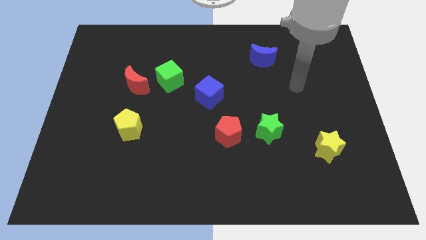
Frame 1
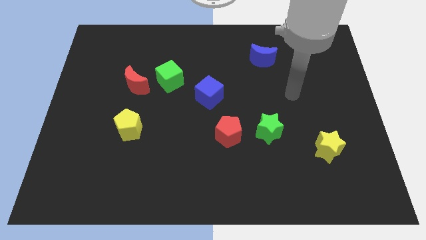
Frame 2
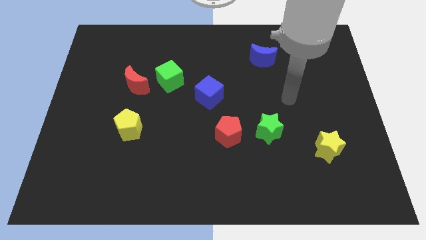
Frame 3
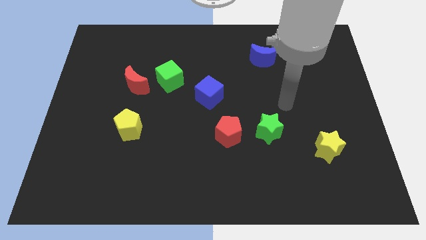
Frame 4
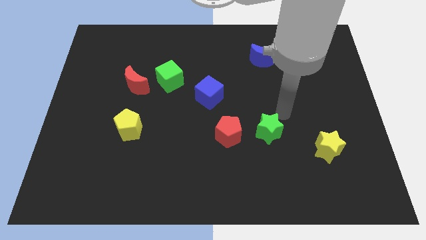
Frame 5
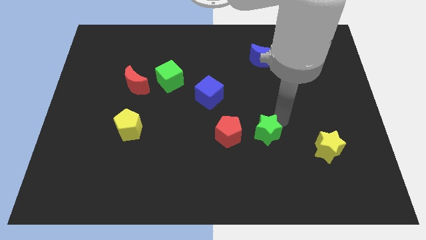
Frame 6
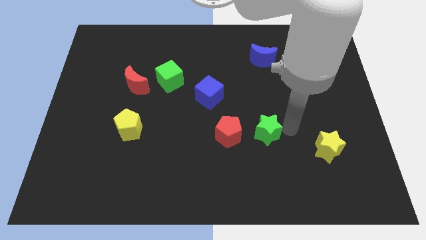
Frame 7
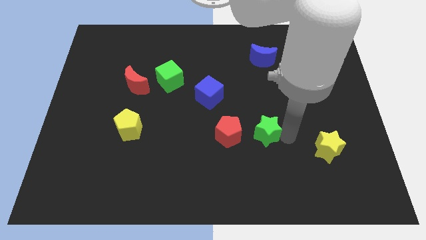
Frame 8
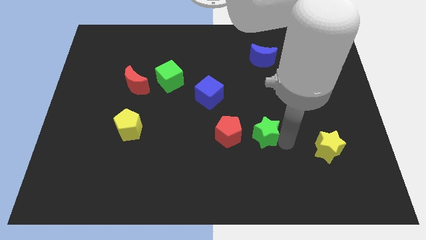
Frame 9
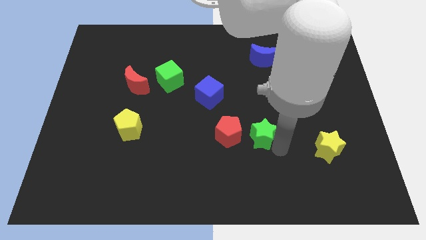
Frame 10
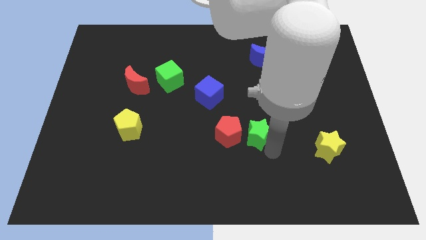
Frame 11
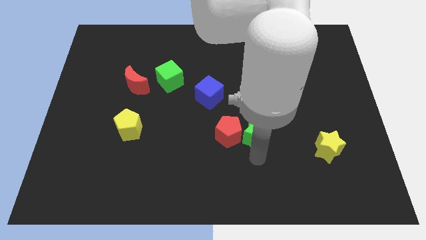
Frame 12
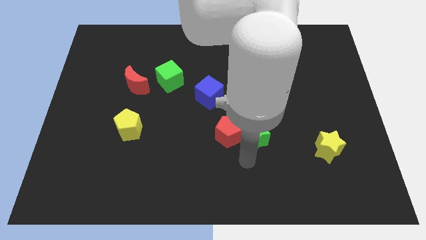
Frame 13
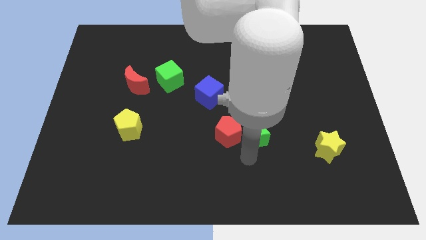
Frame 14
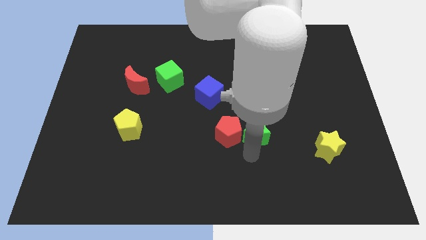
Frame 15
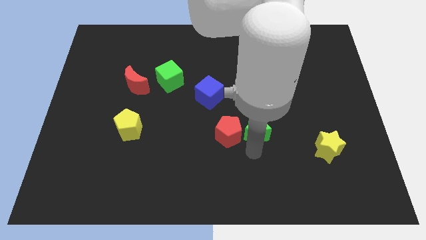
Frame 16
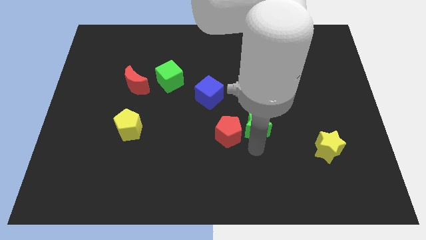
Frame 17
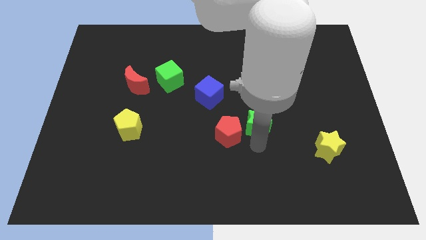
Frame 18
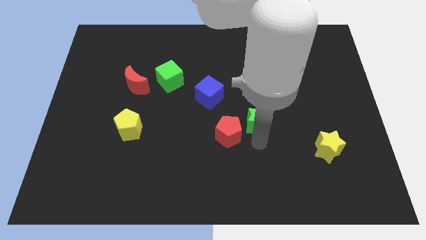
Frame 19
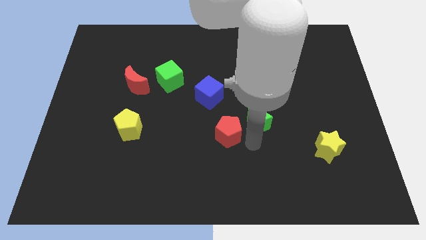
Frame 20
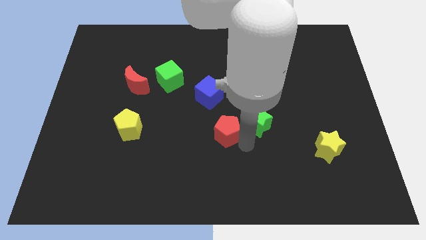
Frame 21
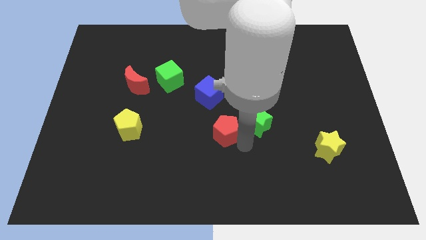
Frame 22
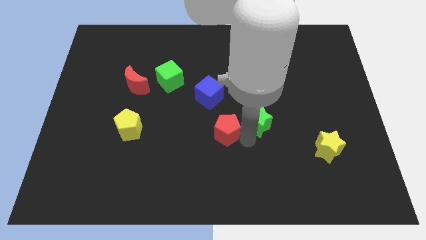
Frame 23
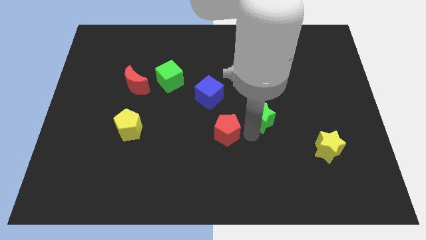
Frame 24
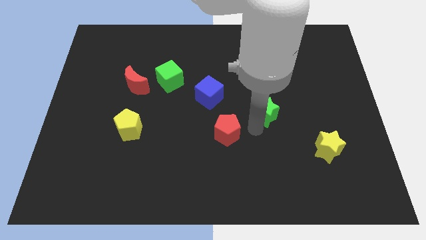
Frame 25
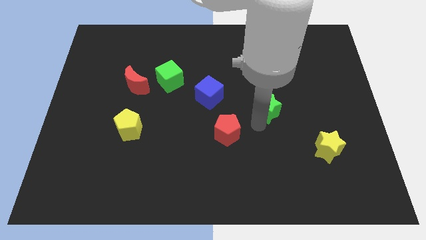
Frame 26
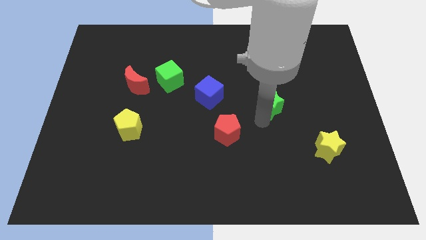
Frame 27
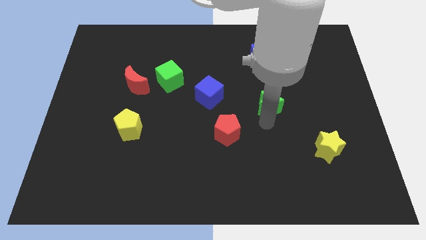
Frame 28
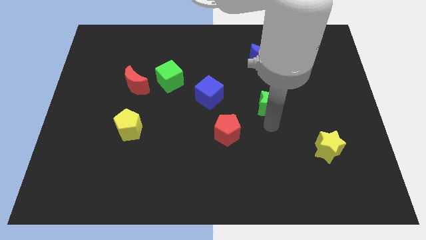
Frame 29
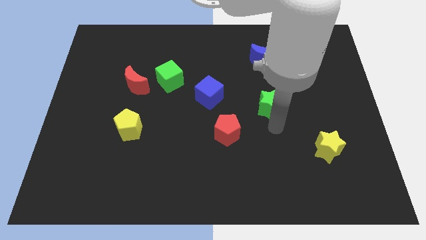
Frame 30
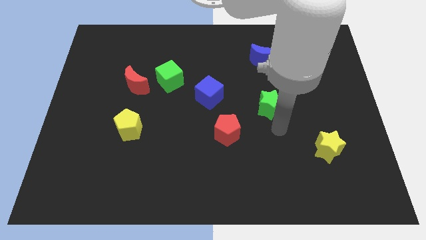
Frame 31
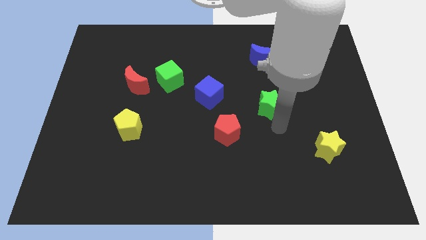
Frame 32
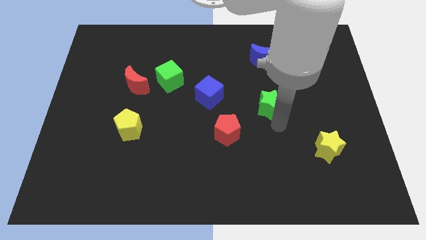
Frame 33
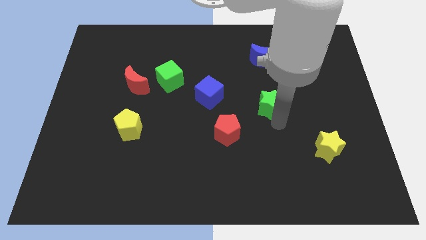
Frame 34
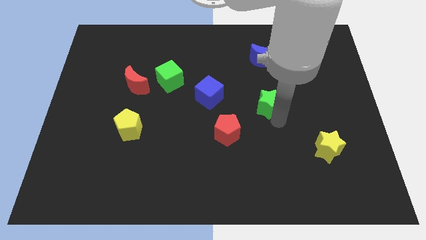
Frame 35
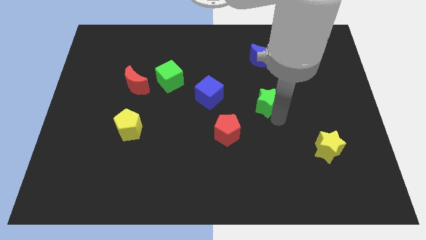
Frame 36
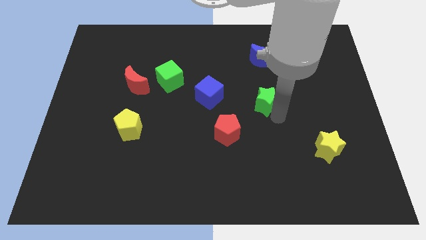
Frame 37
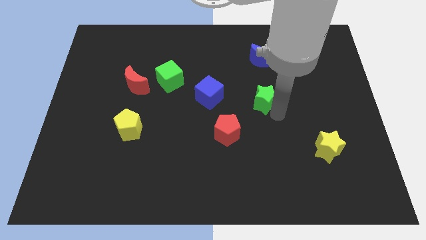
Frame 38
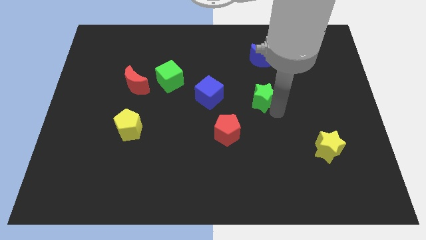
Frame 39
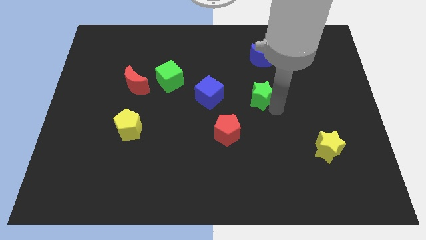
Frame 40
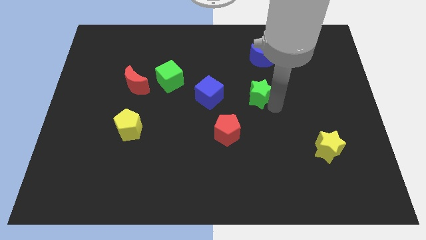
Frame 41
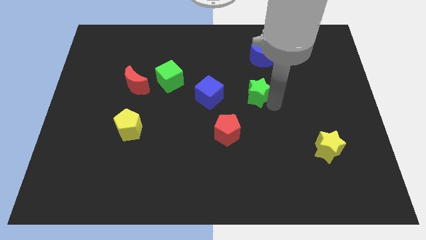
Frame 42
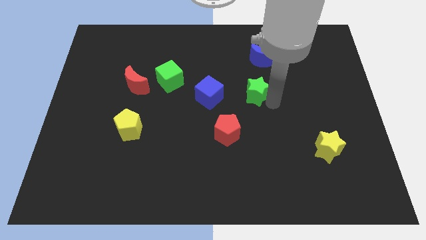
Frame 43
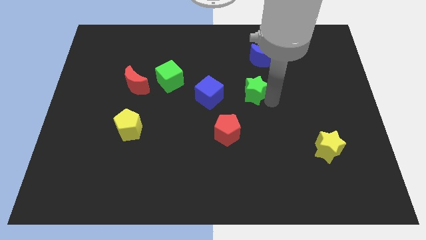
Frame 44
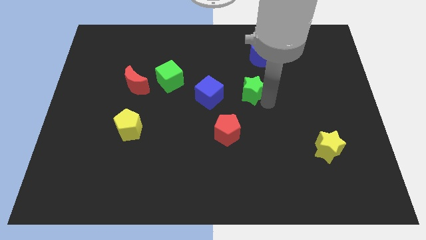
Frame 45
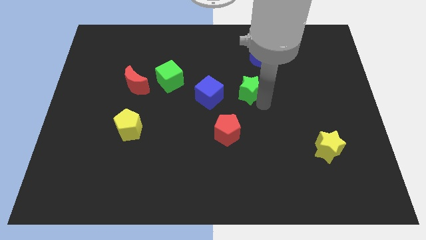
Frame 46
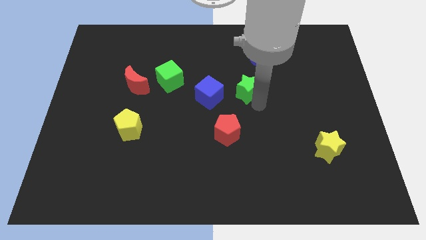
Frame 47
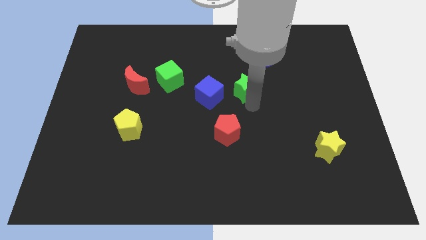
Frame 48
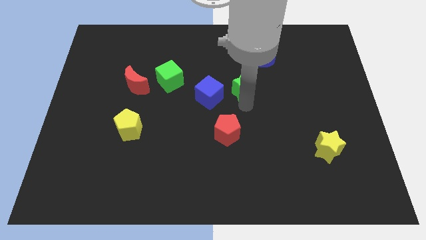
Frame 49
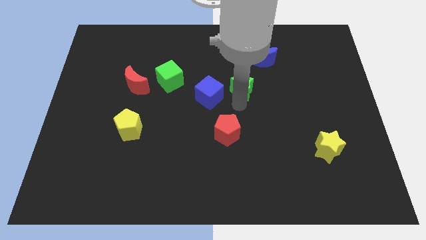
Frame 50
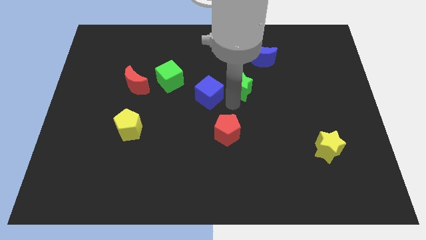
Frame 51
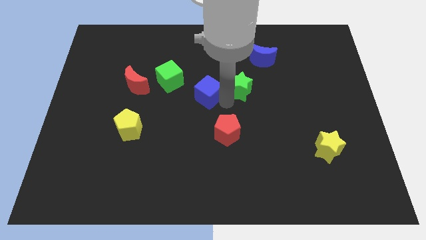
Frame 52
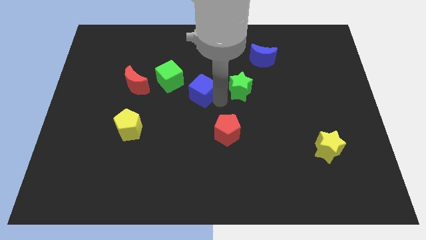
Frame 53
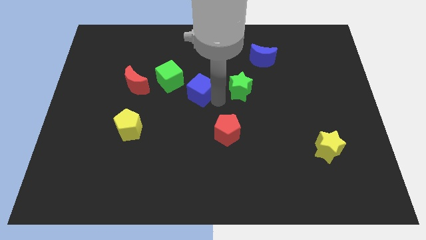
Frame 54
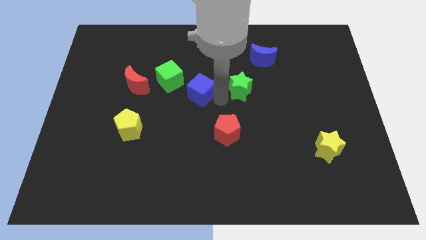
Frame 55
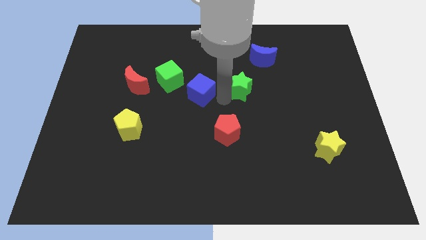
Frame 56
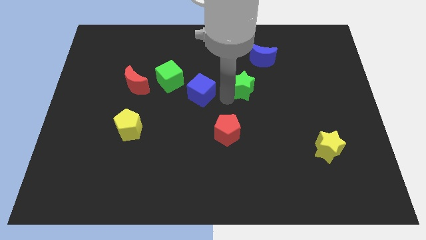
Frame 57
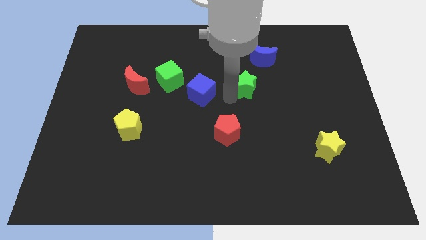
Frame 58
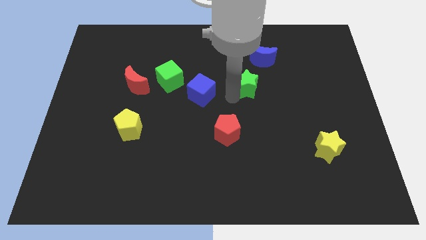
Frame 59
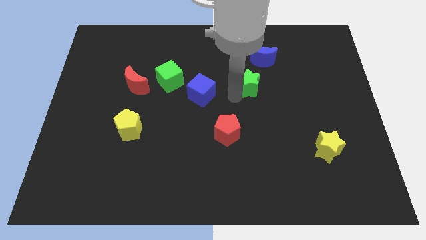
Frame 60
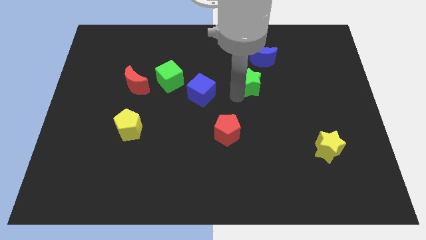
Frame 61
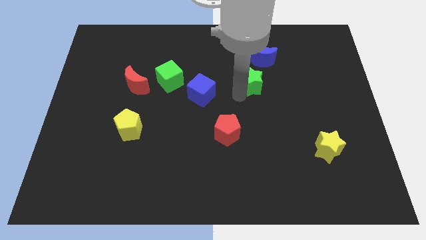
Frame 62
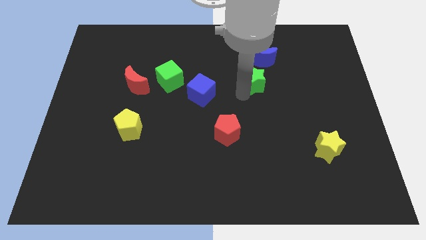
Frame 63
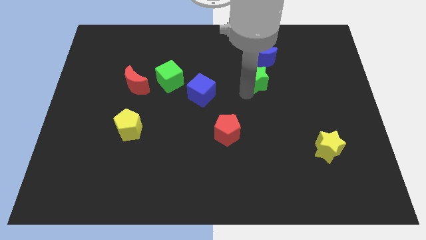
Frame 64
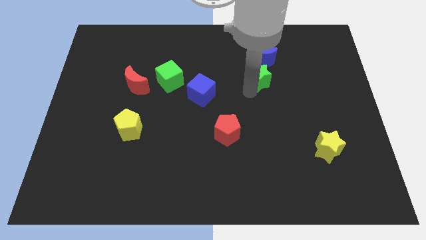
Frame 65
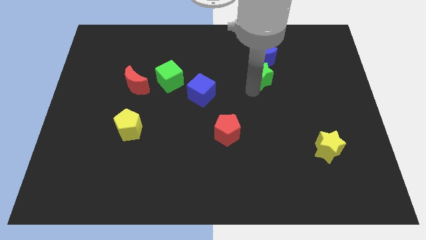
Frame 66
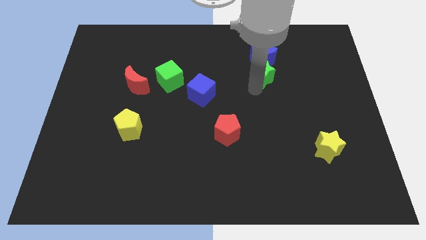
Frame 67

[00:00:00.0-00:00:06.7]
slide the green star next to the blue moon

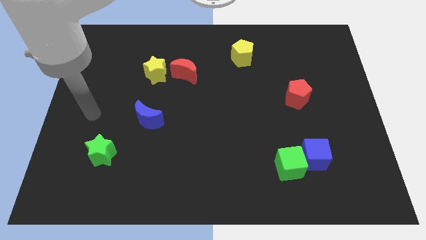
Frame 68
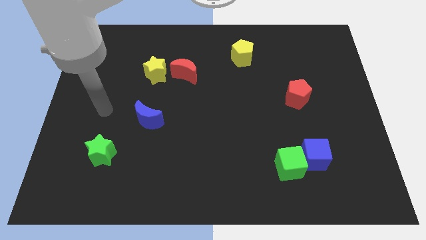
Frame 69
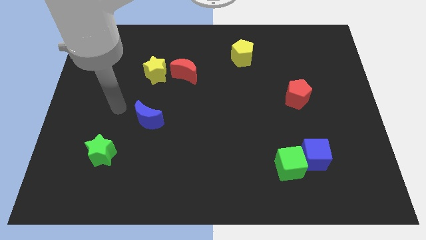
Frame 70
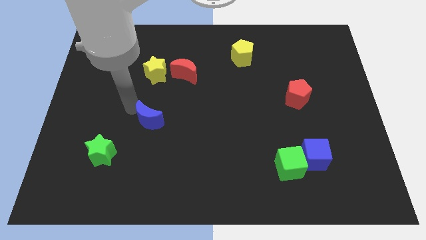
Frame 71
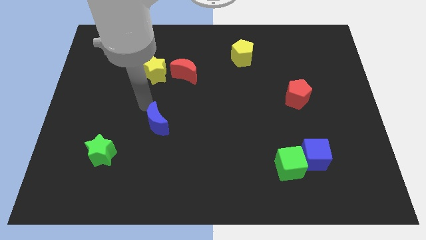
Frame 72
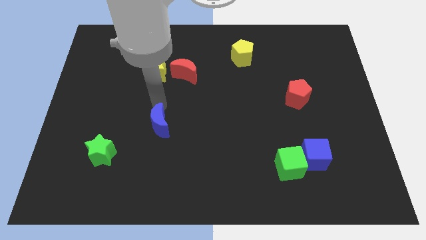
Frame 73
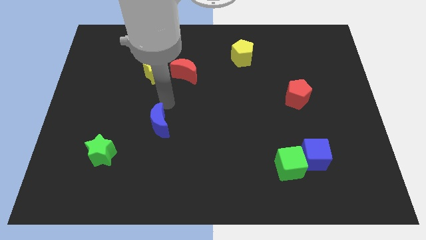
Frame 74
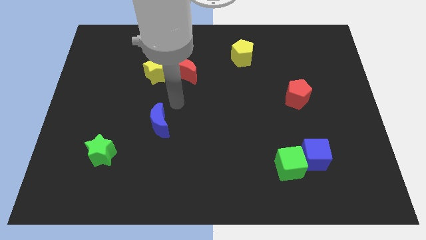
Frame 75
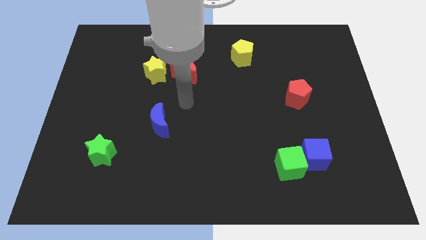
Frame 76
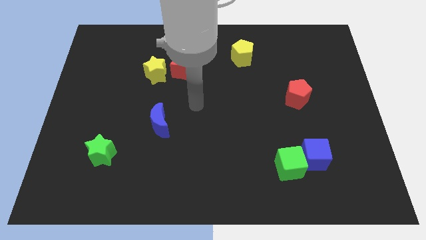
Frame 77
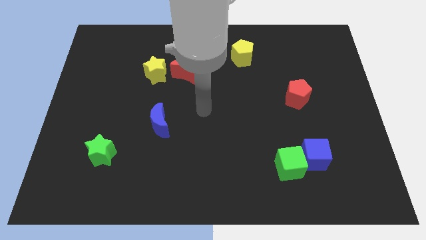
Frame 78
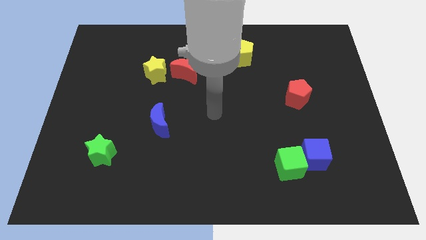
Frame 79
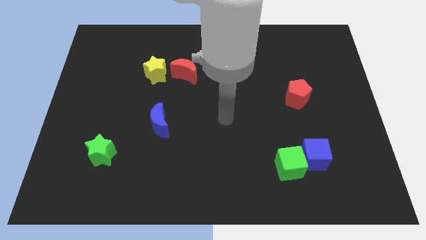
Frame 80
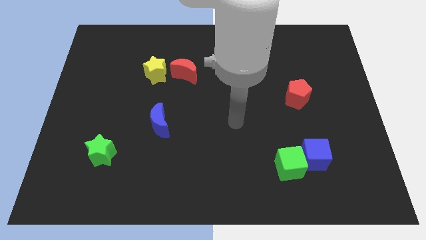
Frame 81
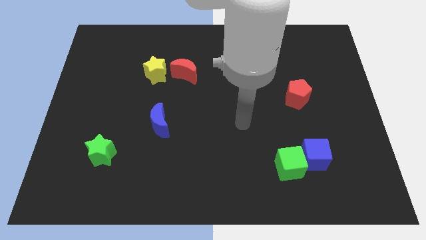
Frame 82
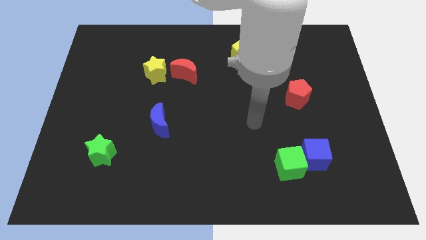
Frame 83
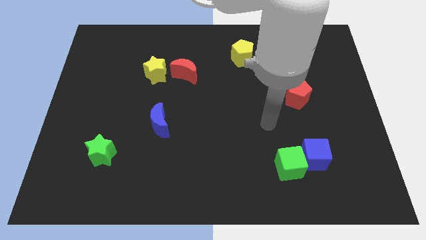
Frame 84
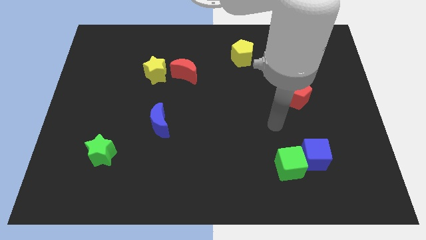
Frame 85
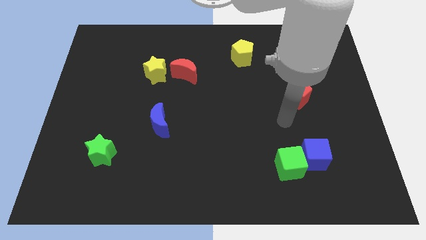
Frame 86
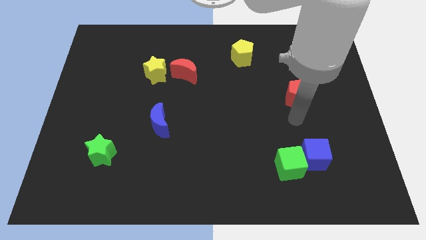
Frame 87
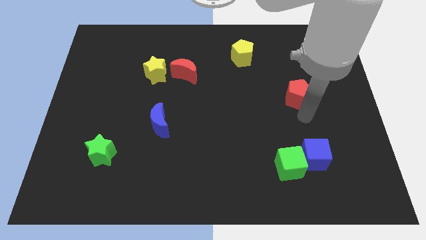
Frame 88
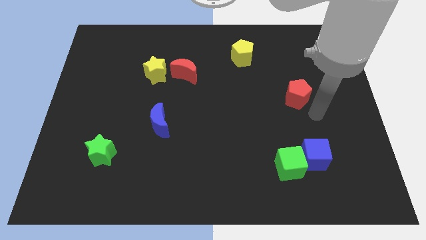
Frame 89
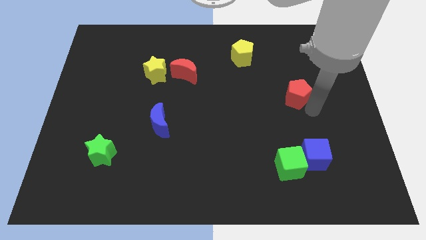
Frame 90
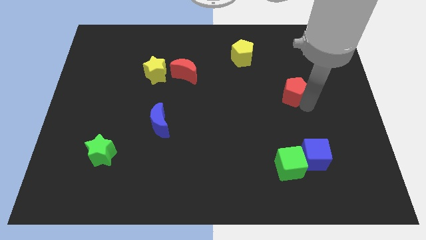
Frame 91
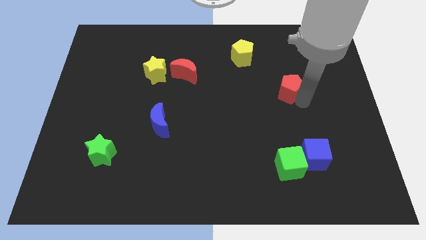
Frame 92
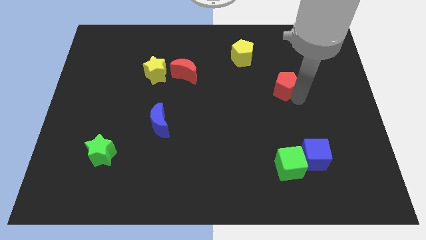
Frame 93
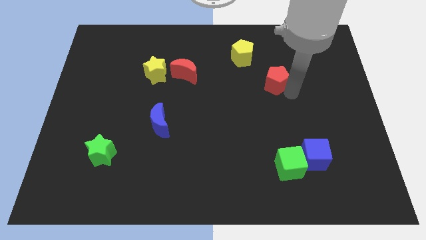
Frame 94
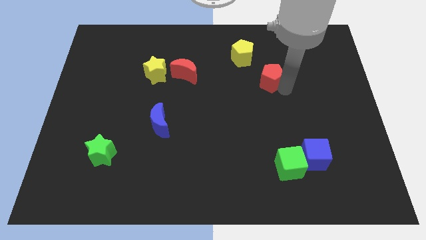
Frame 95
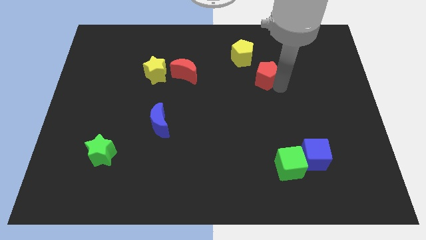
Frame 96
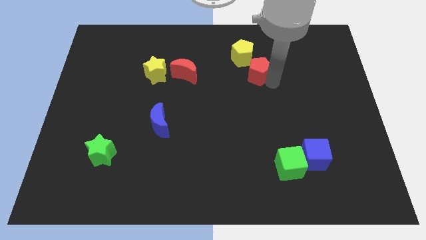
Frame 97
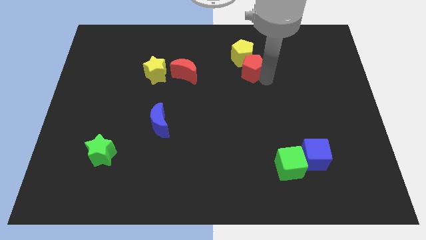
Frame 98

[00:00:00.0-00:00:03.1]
slide the red pentagon to the yellow pentagon
